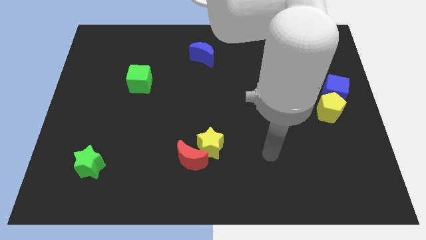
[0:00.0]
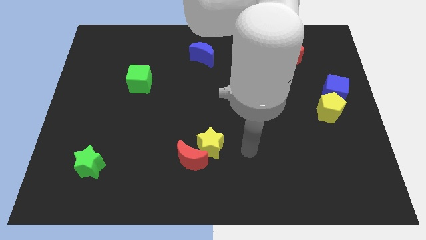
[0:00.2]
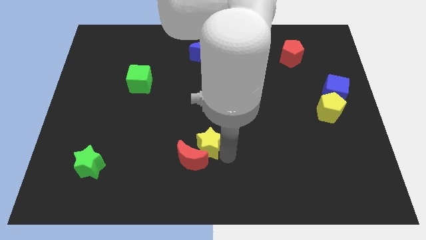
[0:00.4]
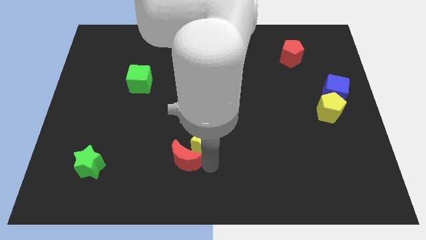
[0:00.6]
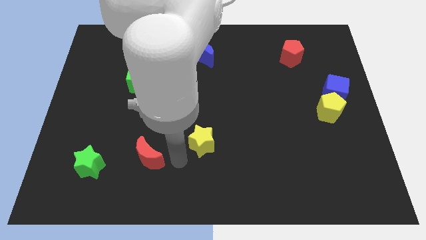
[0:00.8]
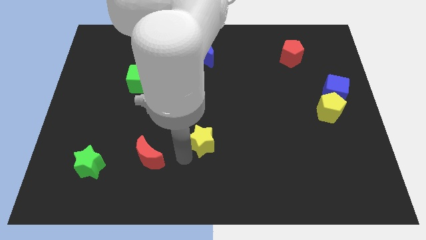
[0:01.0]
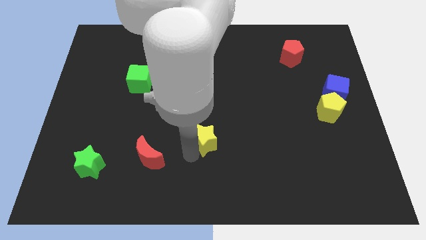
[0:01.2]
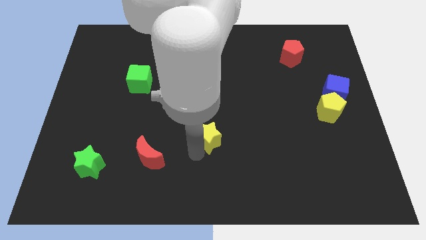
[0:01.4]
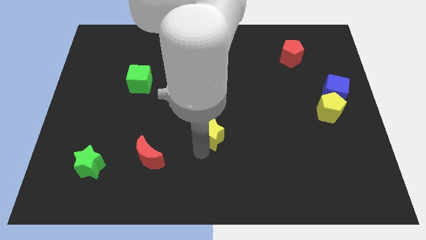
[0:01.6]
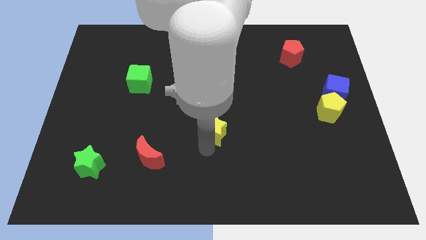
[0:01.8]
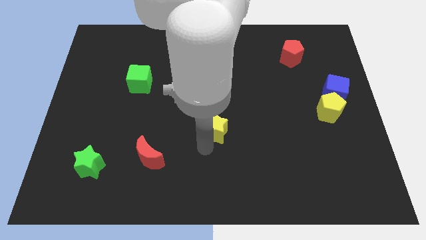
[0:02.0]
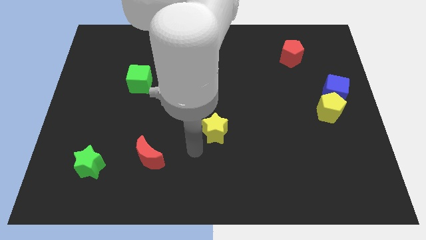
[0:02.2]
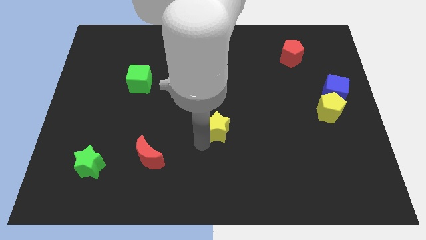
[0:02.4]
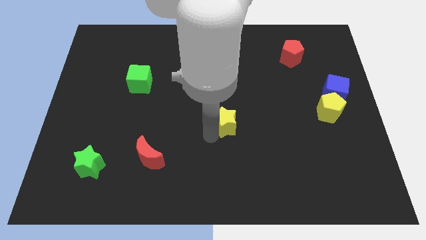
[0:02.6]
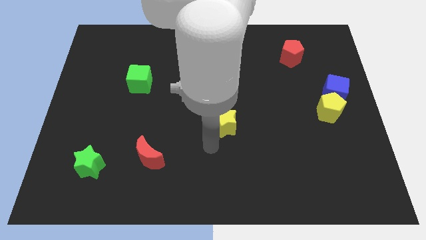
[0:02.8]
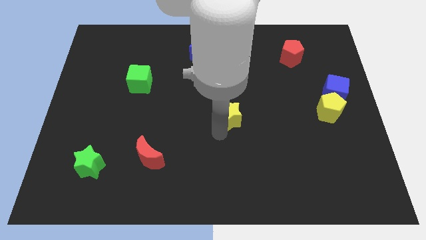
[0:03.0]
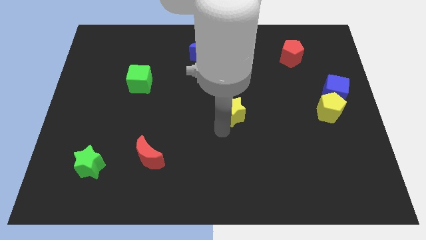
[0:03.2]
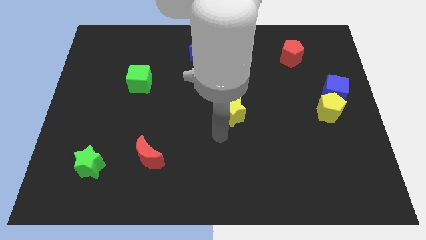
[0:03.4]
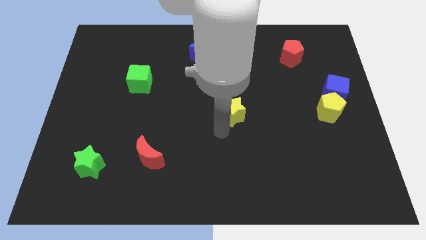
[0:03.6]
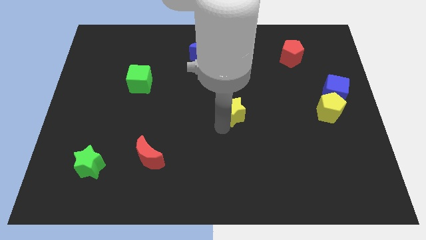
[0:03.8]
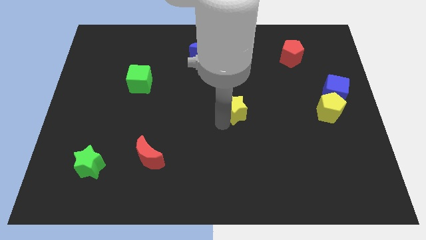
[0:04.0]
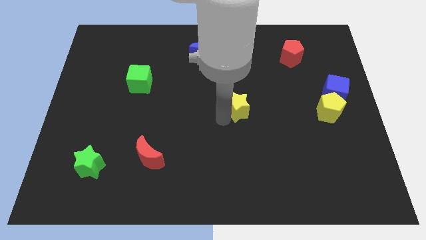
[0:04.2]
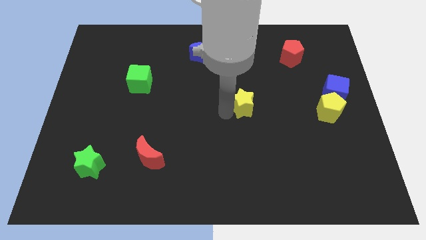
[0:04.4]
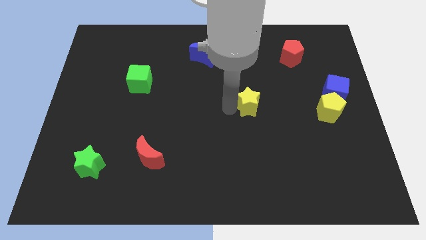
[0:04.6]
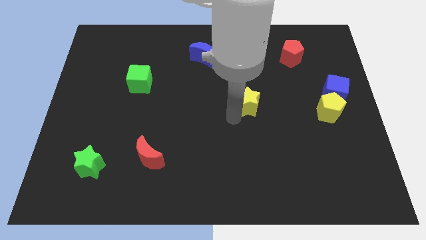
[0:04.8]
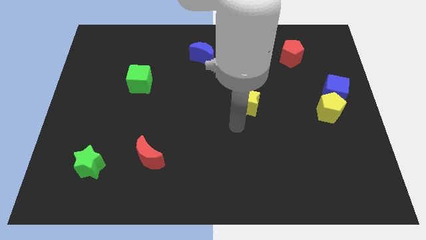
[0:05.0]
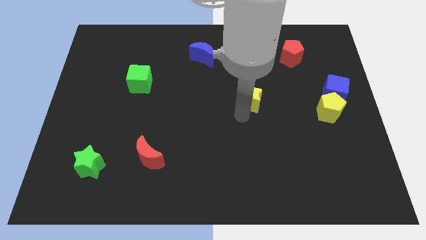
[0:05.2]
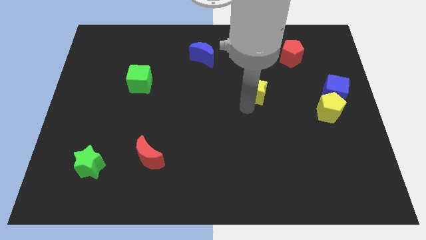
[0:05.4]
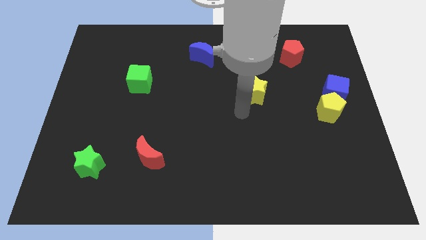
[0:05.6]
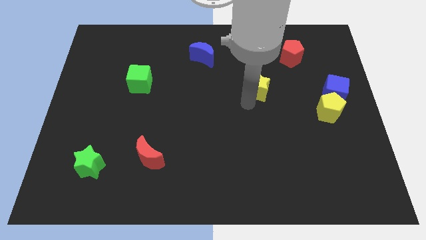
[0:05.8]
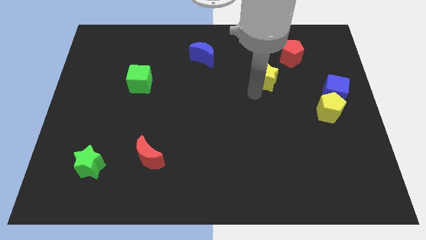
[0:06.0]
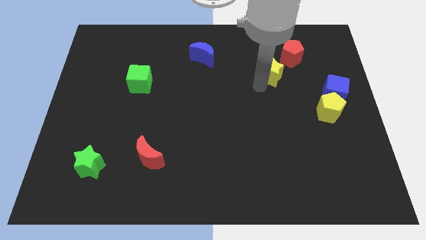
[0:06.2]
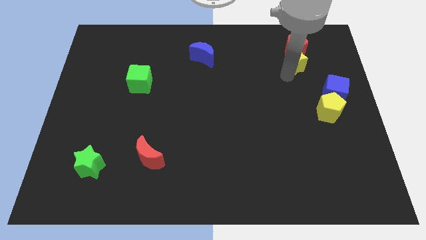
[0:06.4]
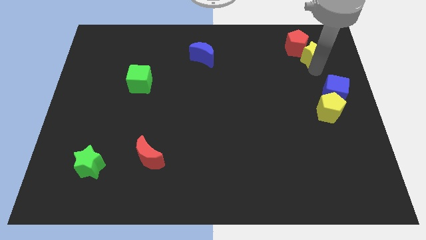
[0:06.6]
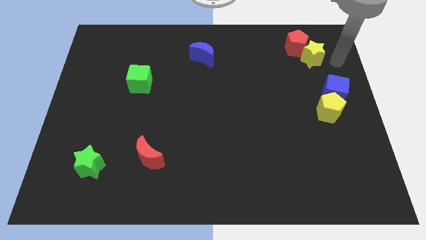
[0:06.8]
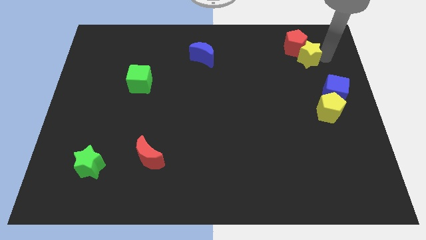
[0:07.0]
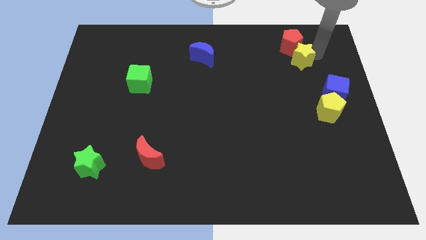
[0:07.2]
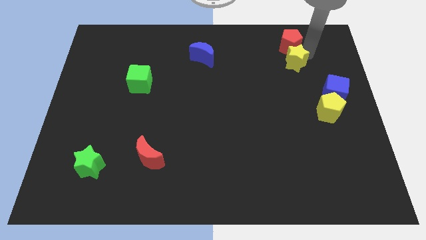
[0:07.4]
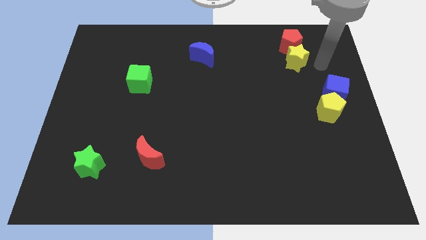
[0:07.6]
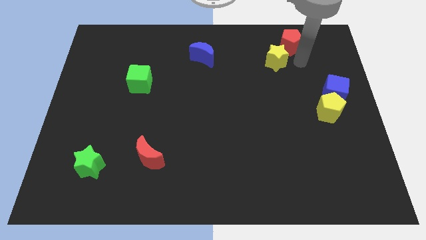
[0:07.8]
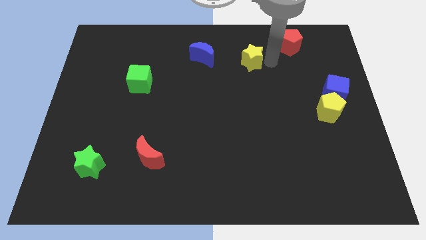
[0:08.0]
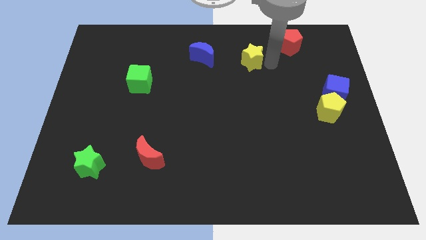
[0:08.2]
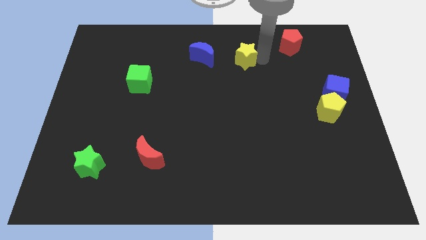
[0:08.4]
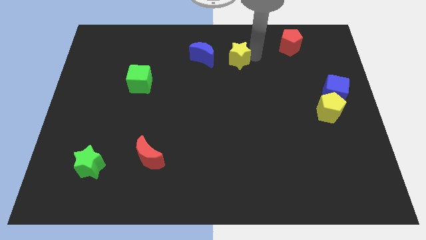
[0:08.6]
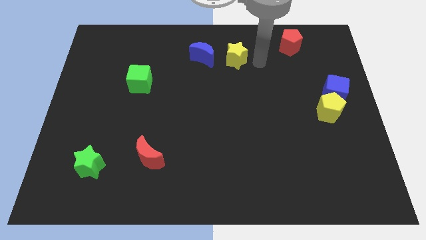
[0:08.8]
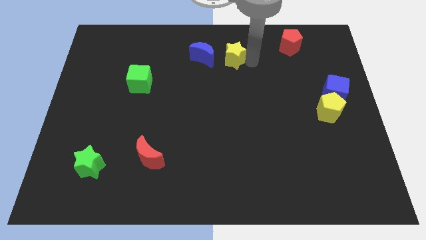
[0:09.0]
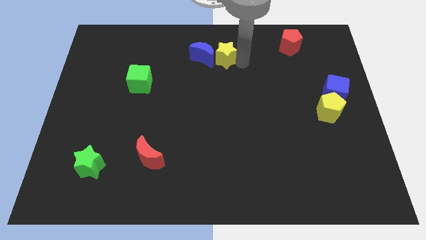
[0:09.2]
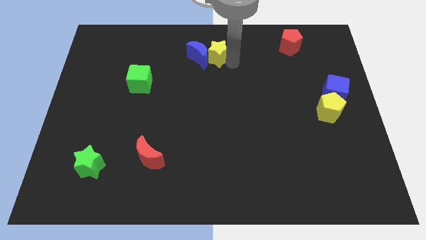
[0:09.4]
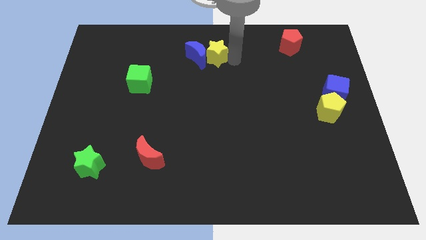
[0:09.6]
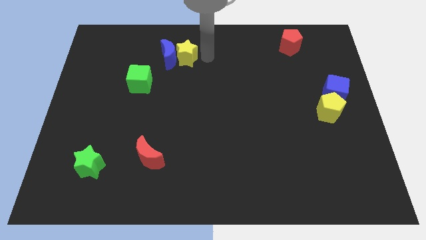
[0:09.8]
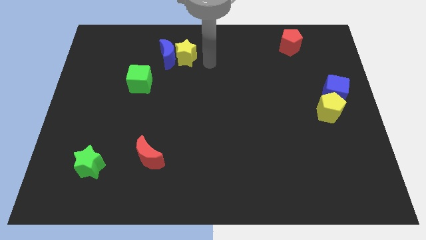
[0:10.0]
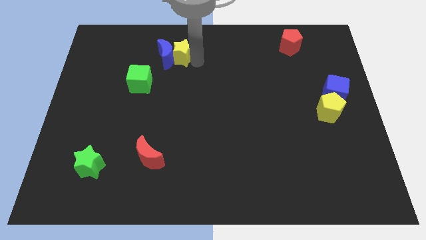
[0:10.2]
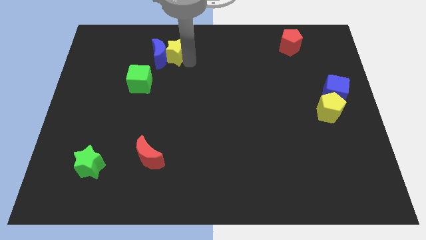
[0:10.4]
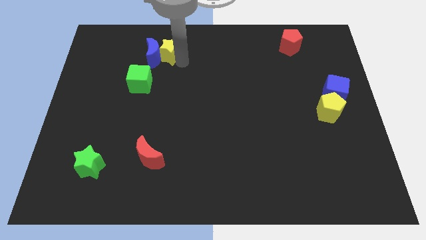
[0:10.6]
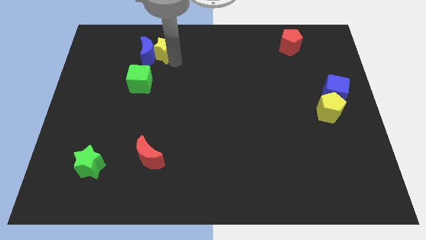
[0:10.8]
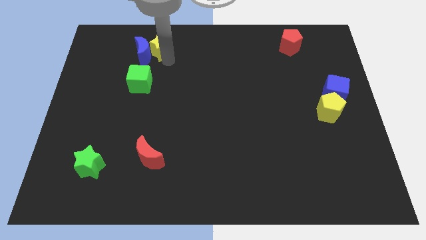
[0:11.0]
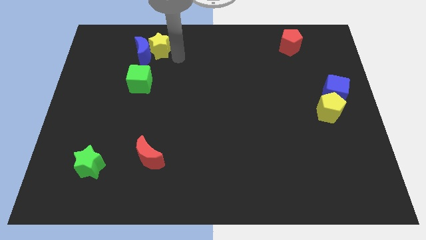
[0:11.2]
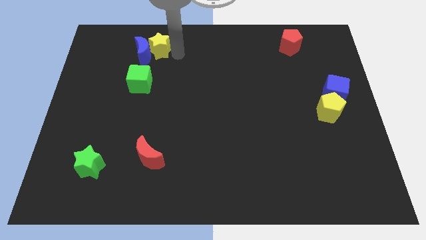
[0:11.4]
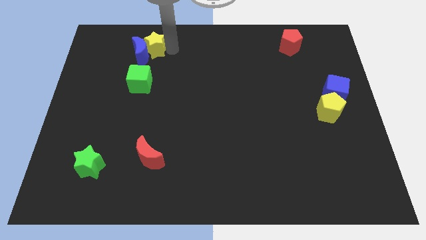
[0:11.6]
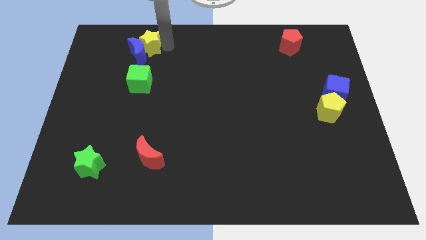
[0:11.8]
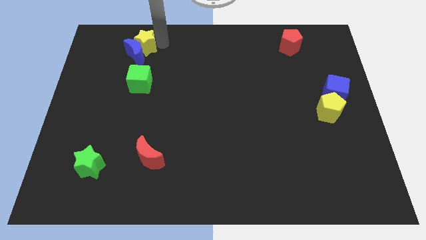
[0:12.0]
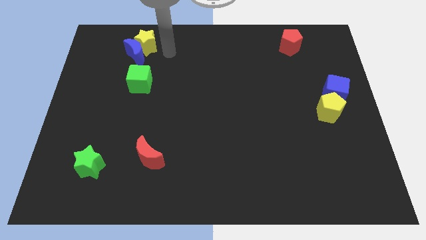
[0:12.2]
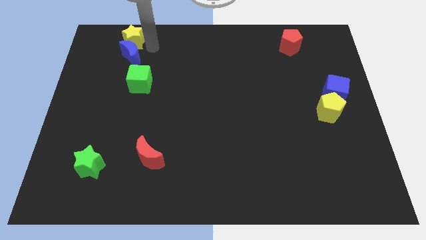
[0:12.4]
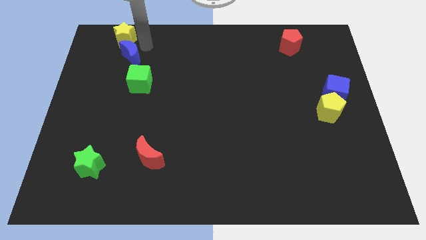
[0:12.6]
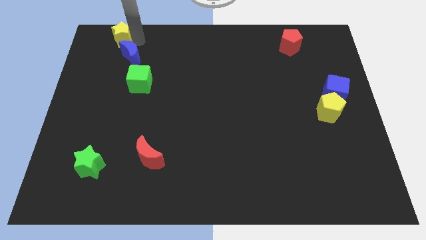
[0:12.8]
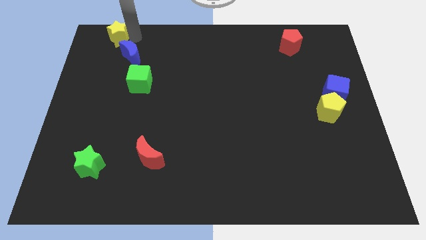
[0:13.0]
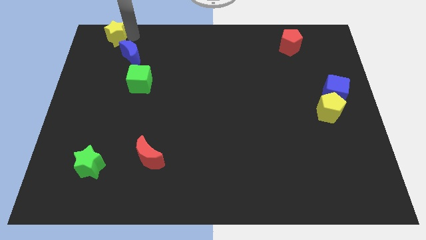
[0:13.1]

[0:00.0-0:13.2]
put the yellow star to the upper left corner
